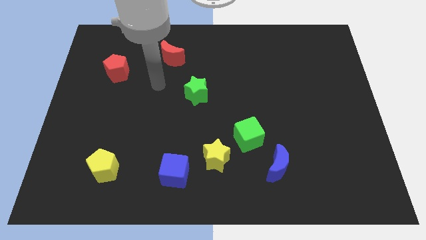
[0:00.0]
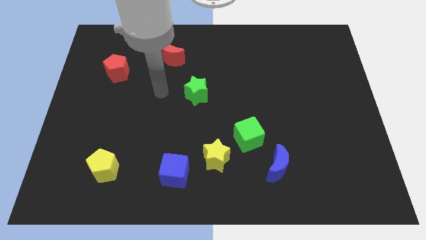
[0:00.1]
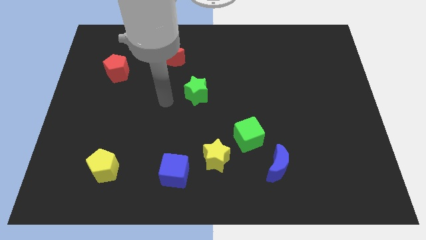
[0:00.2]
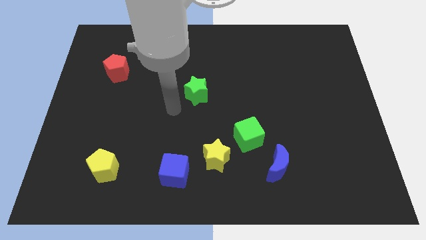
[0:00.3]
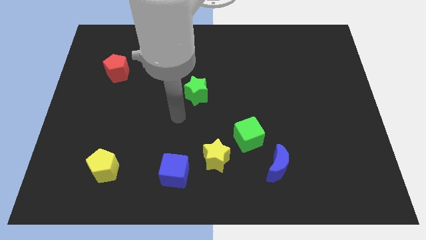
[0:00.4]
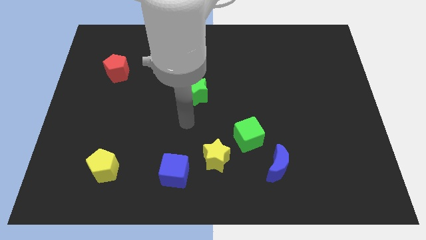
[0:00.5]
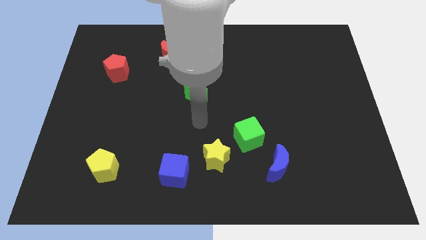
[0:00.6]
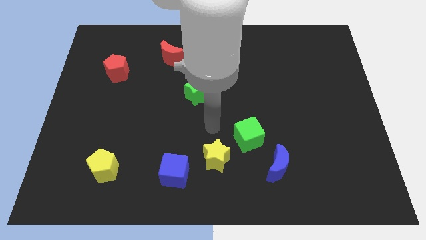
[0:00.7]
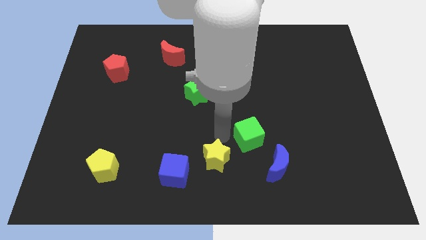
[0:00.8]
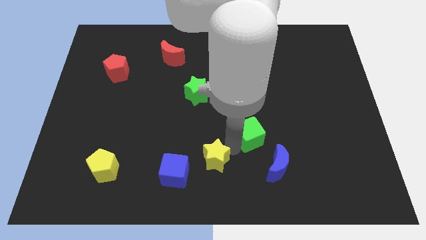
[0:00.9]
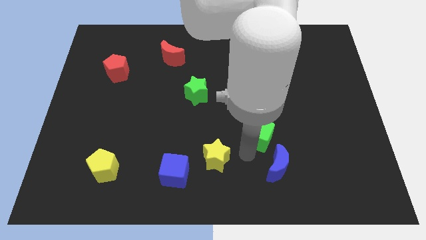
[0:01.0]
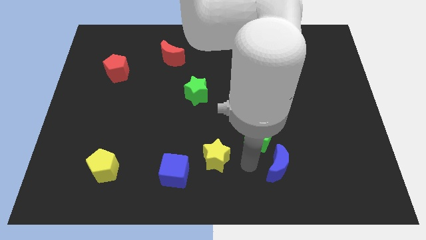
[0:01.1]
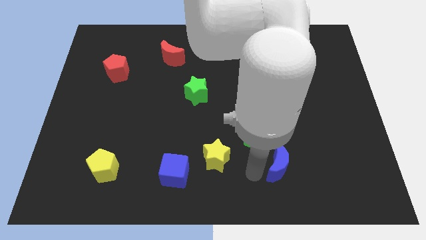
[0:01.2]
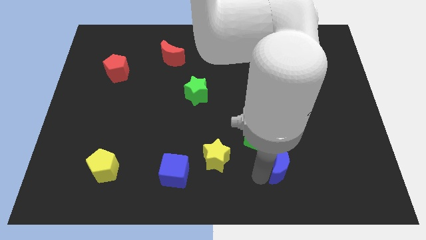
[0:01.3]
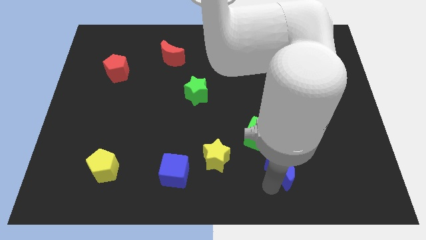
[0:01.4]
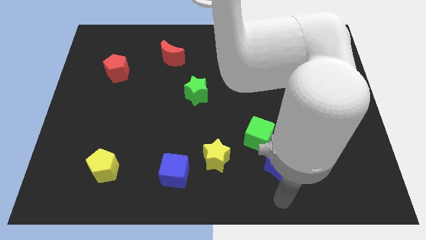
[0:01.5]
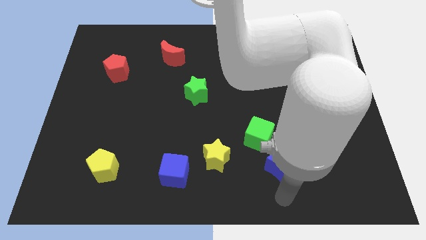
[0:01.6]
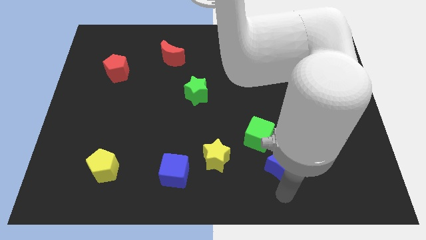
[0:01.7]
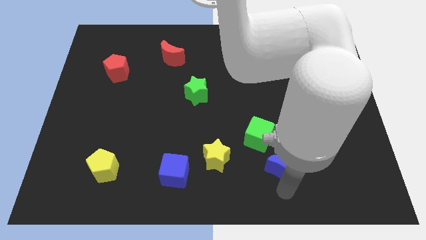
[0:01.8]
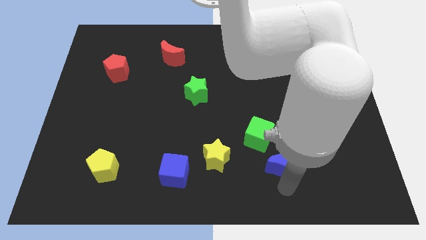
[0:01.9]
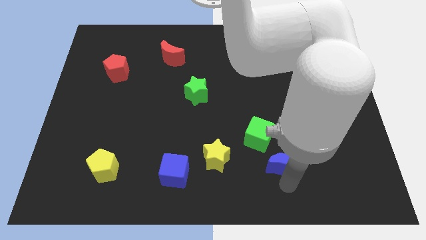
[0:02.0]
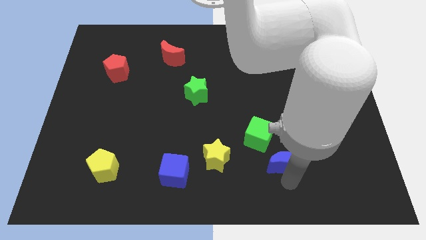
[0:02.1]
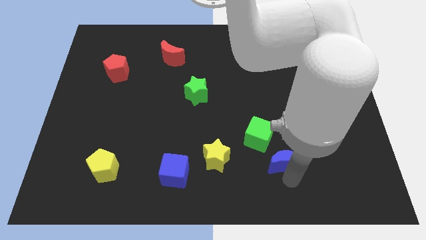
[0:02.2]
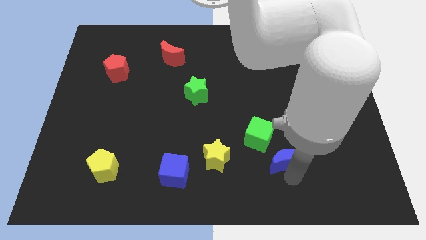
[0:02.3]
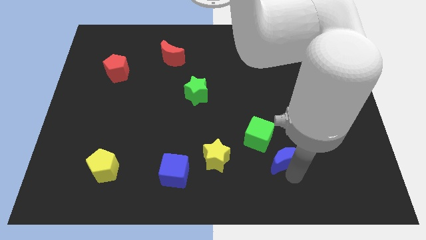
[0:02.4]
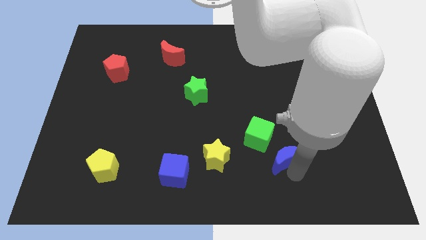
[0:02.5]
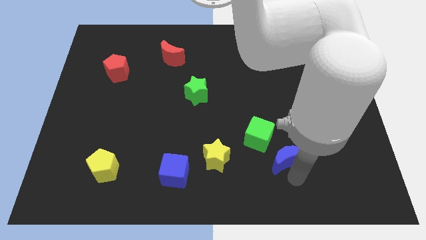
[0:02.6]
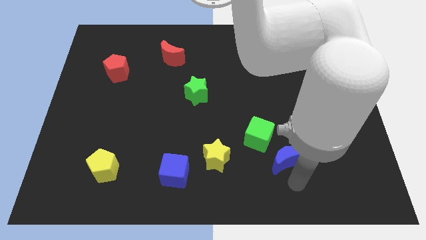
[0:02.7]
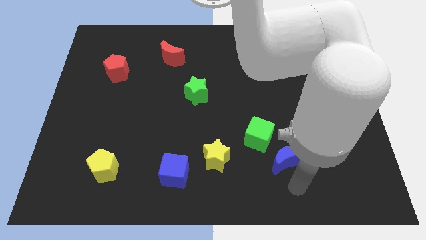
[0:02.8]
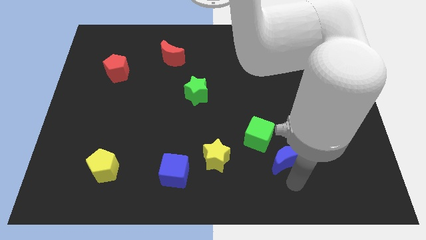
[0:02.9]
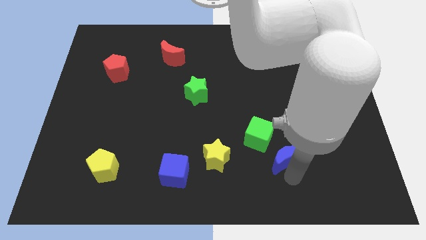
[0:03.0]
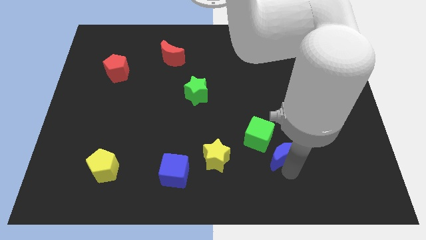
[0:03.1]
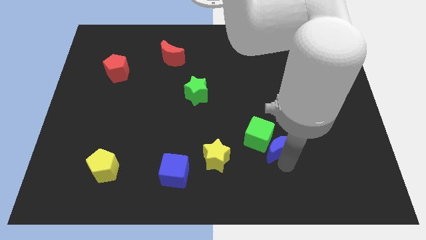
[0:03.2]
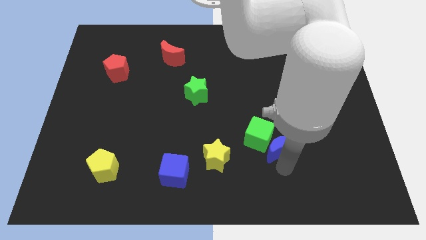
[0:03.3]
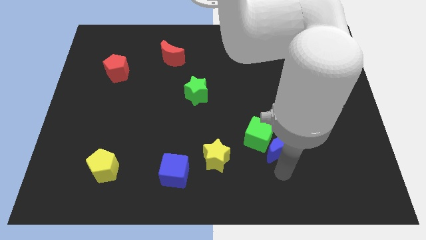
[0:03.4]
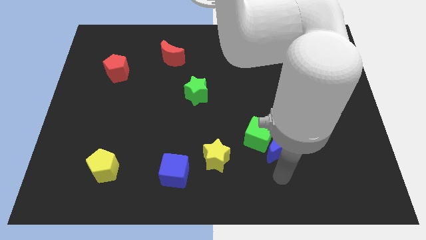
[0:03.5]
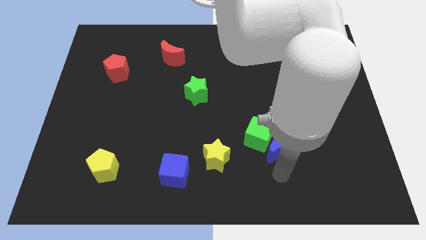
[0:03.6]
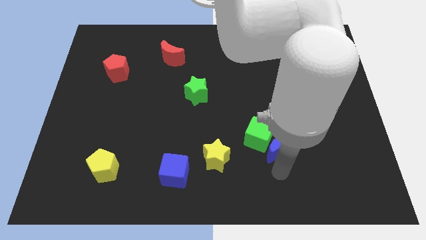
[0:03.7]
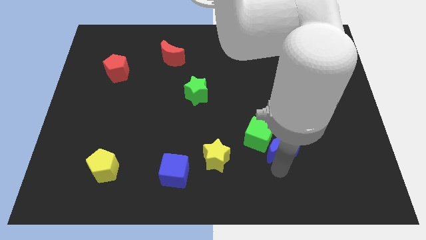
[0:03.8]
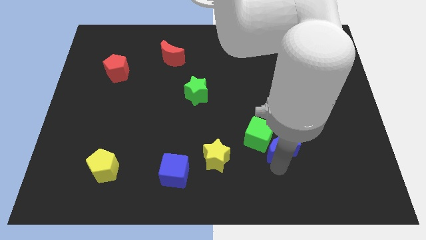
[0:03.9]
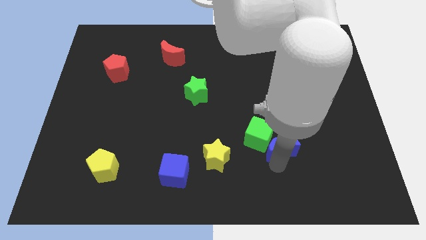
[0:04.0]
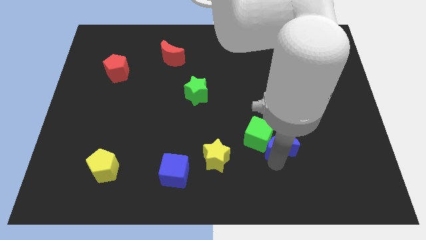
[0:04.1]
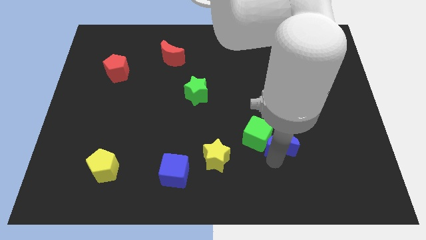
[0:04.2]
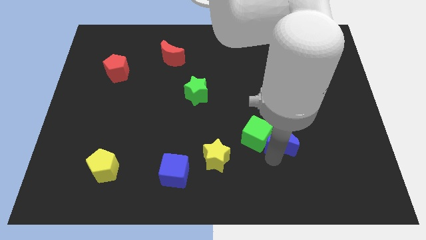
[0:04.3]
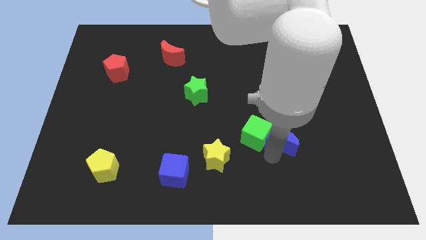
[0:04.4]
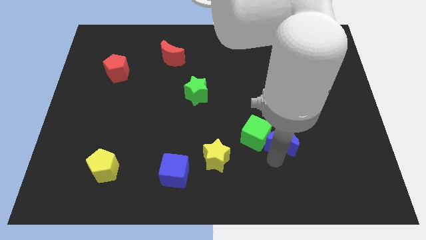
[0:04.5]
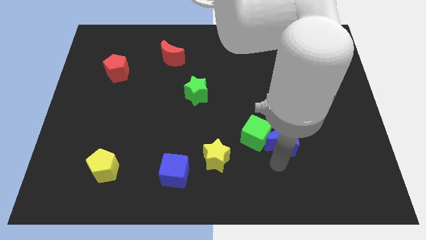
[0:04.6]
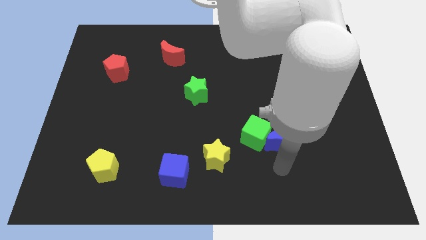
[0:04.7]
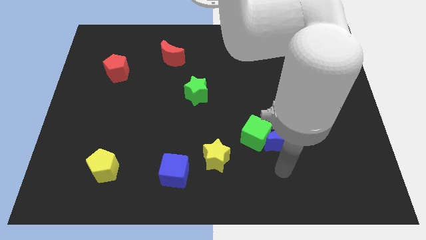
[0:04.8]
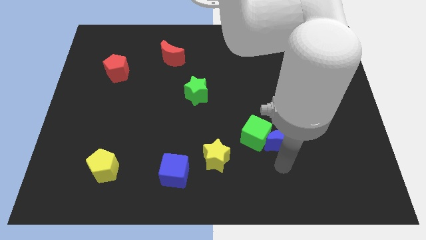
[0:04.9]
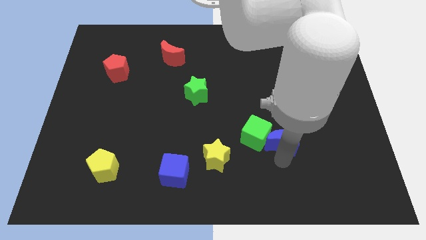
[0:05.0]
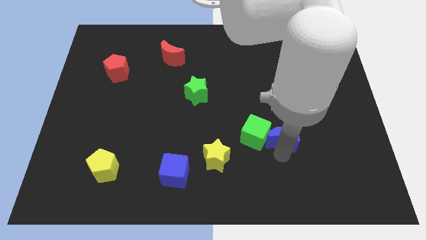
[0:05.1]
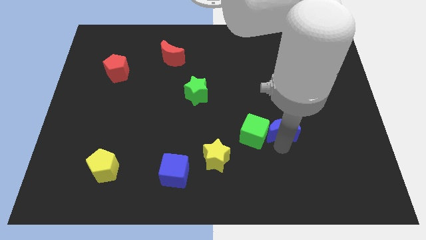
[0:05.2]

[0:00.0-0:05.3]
move the blue moon up a little

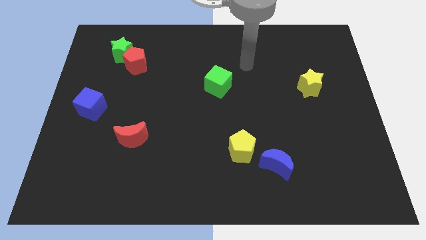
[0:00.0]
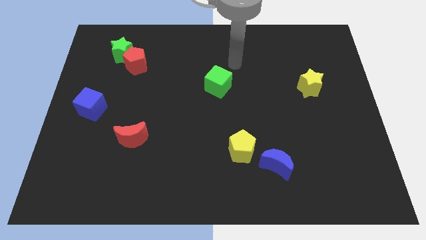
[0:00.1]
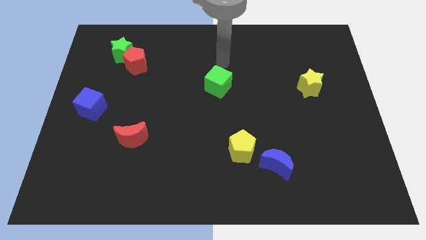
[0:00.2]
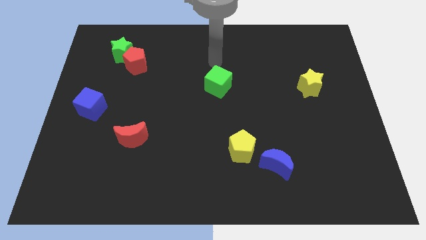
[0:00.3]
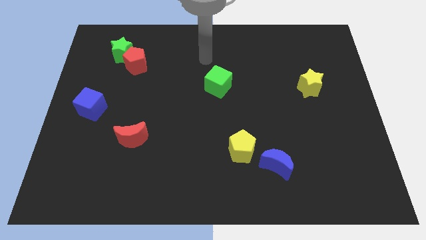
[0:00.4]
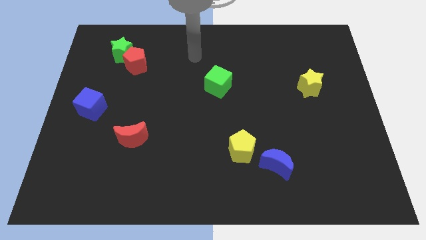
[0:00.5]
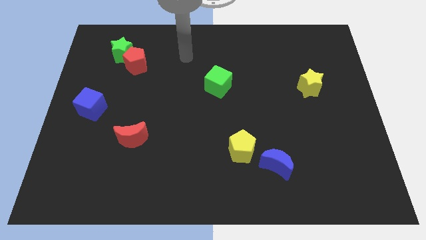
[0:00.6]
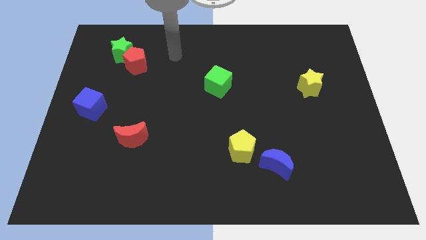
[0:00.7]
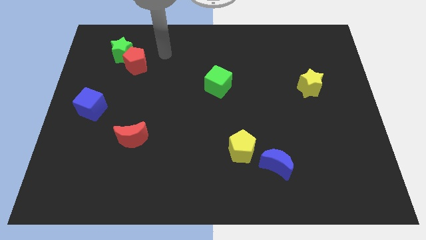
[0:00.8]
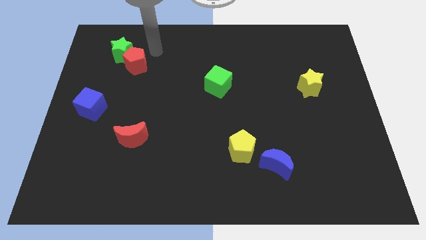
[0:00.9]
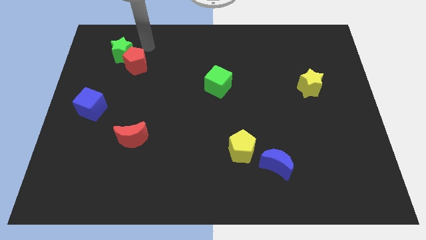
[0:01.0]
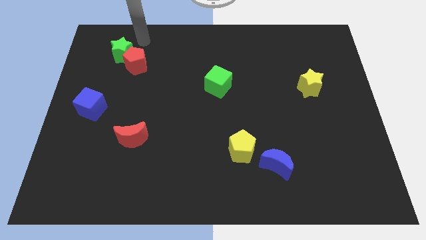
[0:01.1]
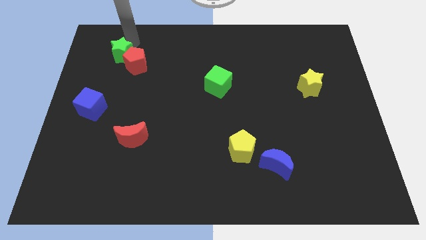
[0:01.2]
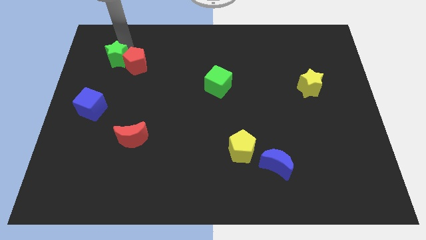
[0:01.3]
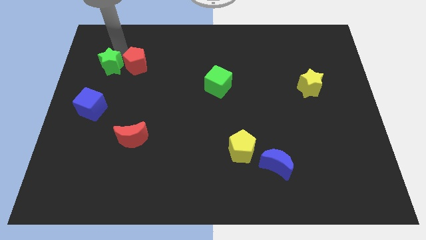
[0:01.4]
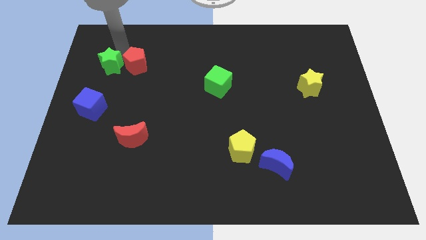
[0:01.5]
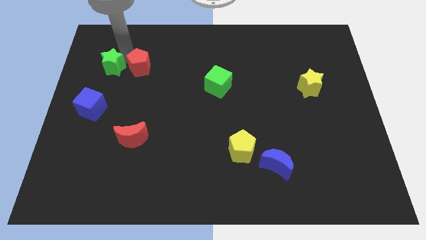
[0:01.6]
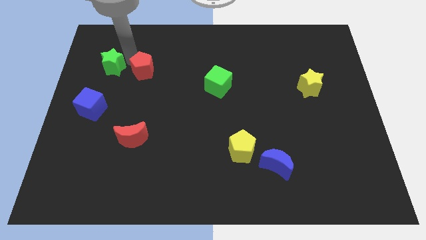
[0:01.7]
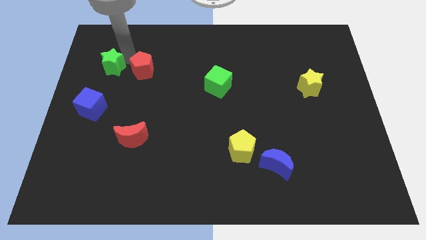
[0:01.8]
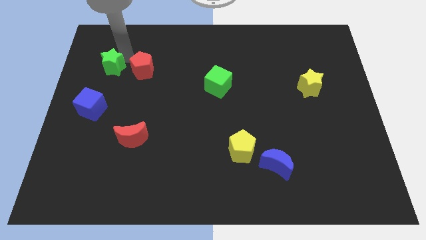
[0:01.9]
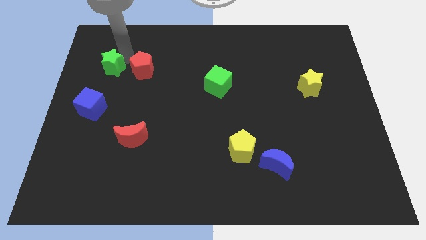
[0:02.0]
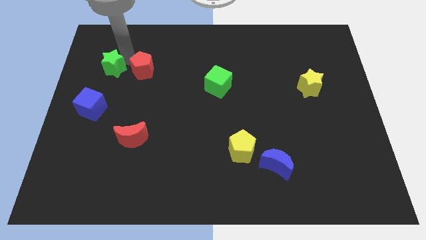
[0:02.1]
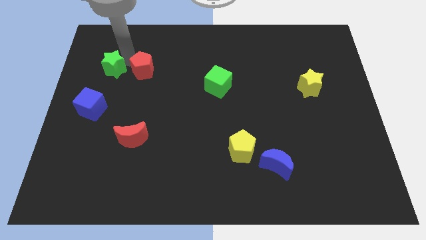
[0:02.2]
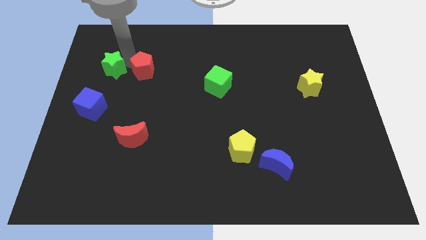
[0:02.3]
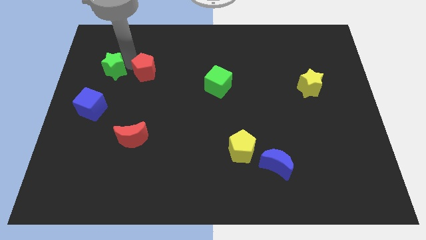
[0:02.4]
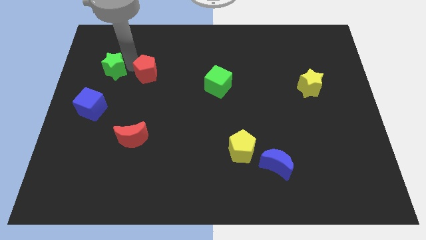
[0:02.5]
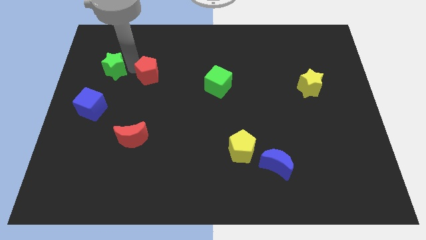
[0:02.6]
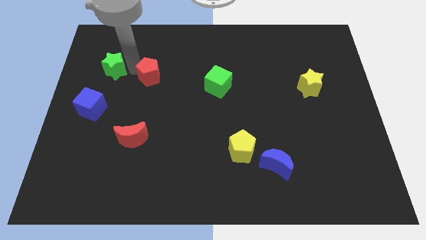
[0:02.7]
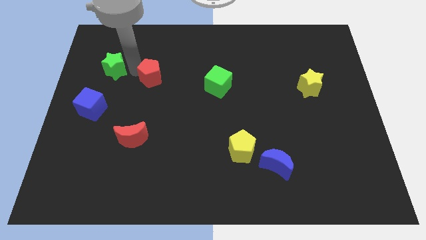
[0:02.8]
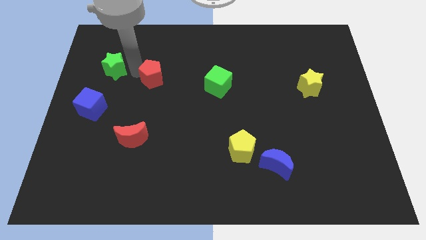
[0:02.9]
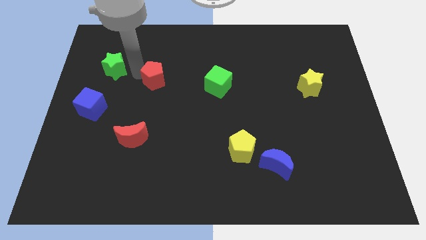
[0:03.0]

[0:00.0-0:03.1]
slightly slide the red pentagon down and right diagonally
